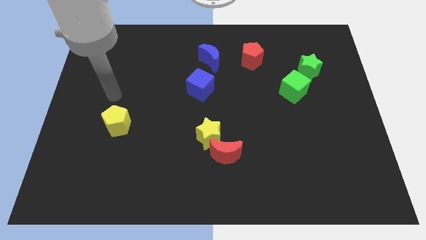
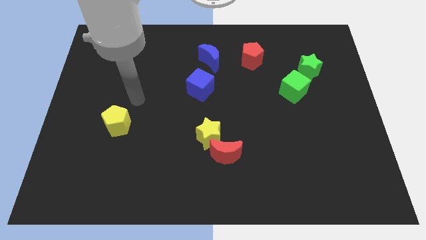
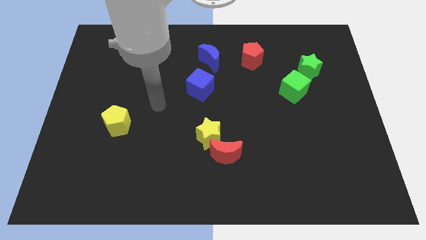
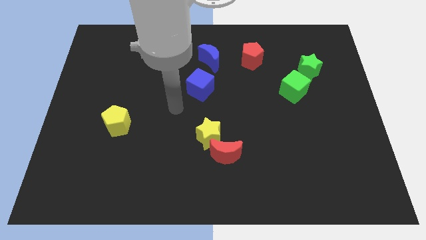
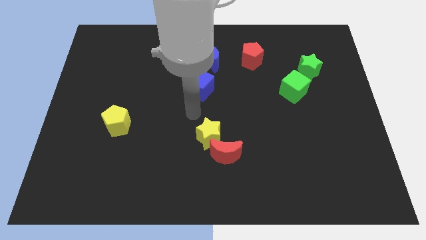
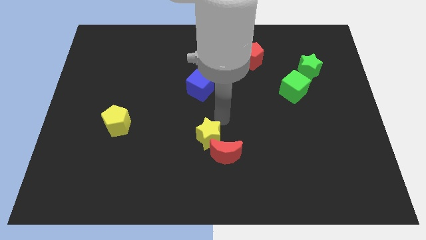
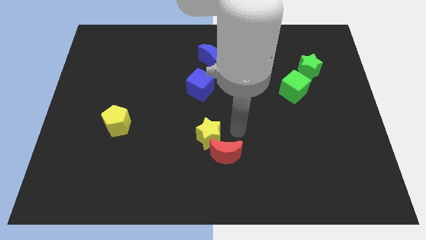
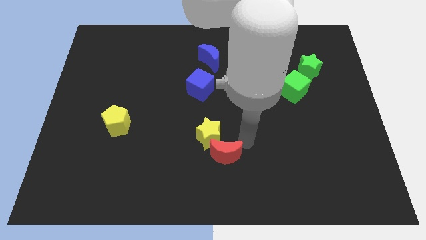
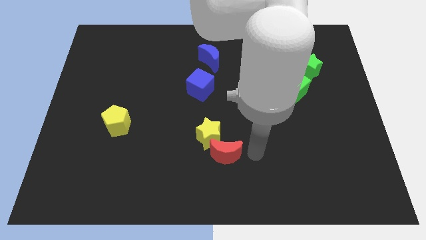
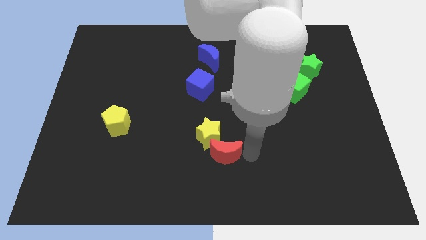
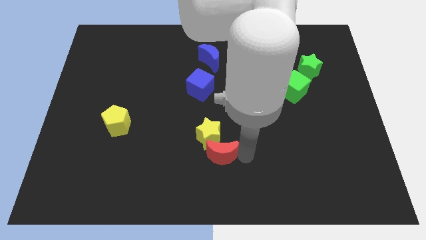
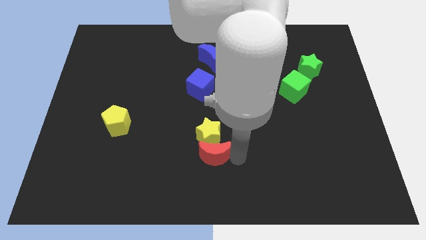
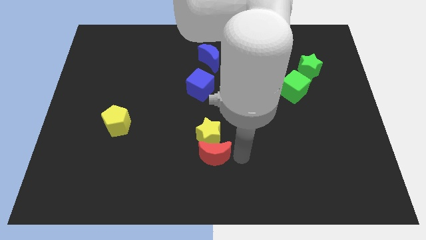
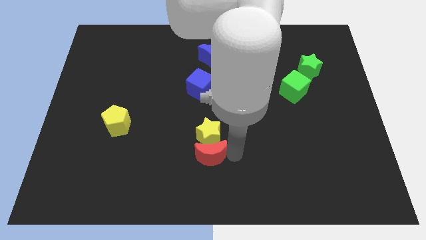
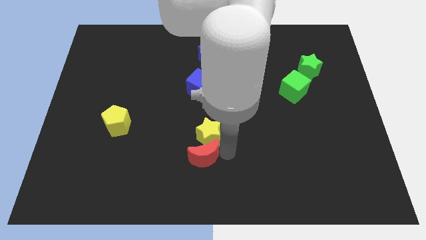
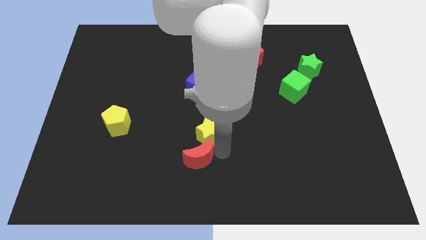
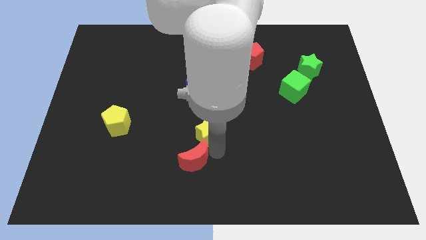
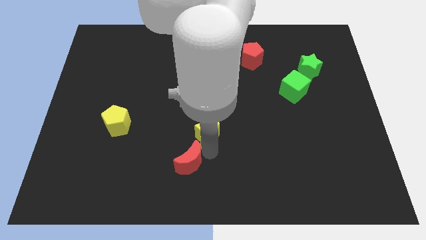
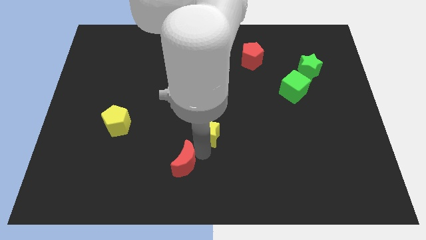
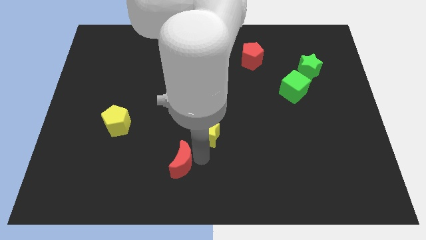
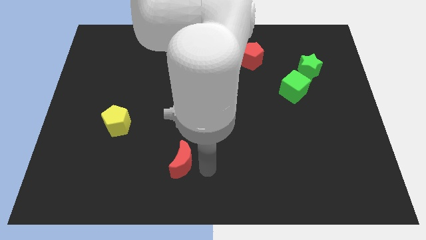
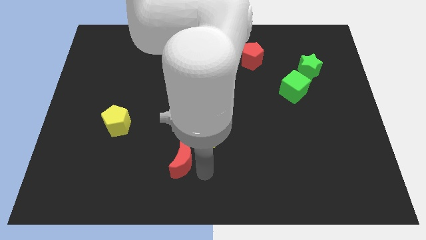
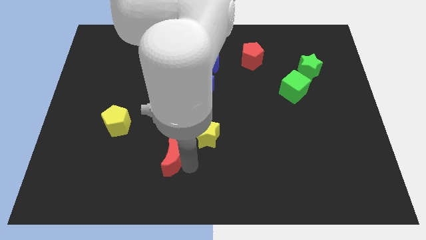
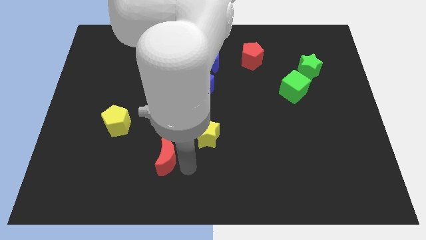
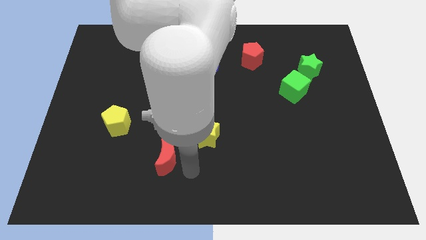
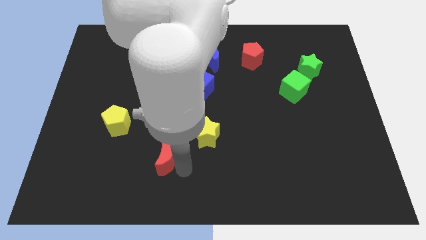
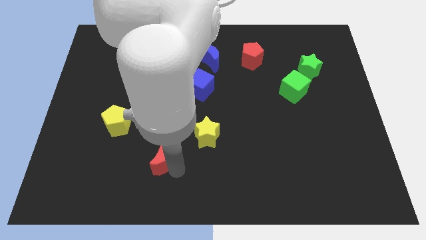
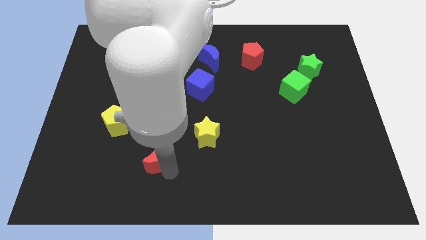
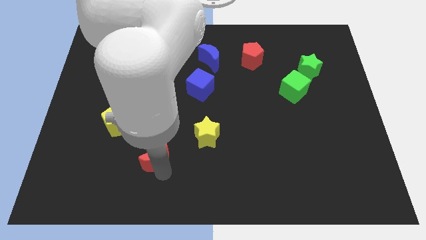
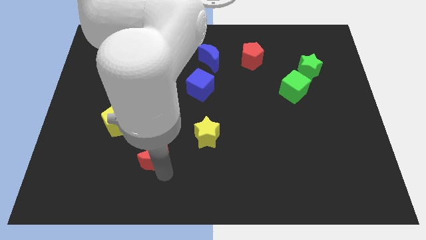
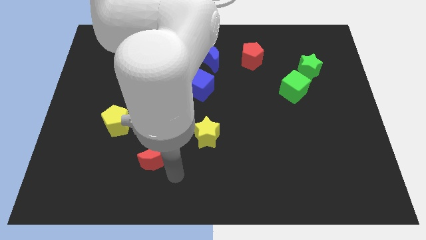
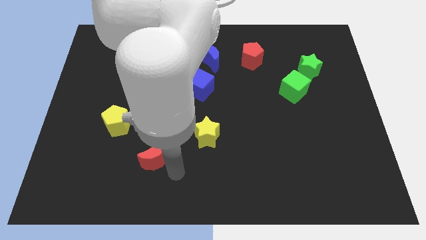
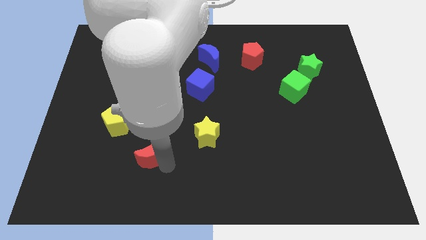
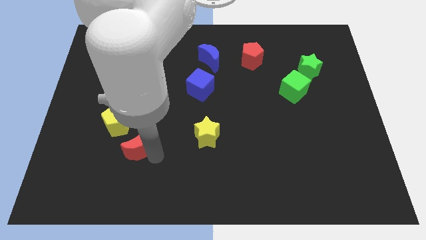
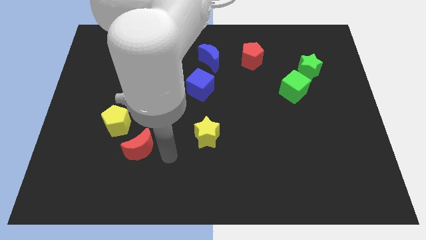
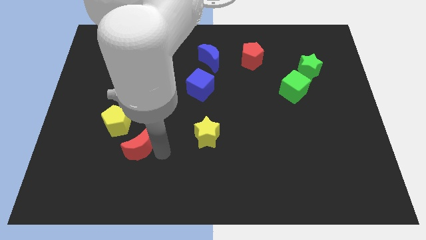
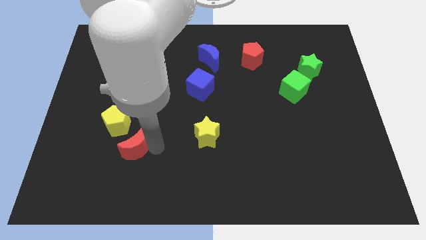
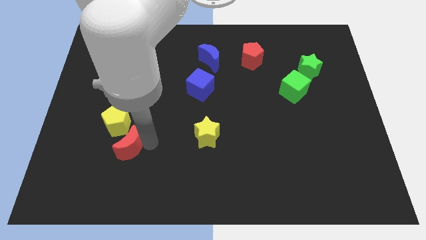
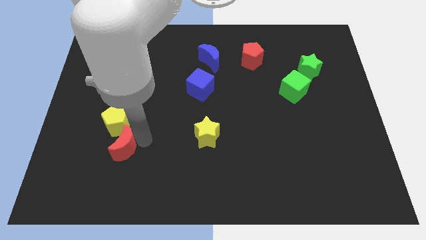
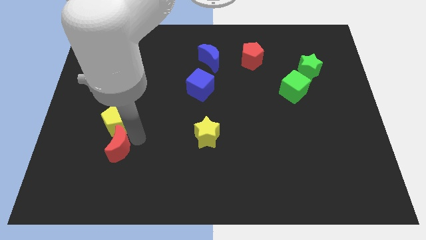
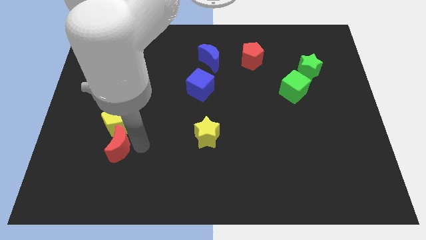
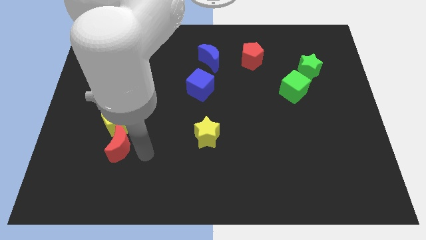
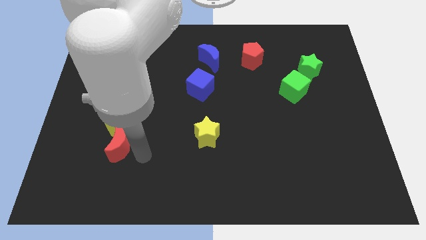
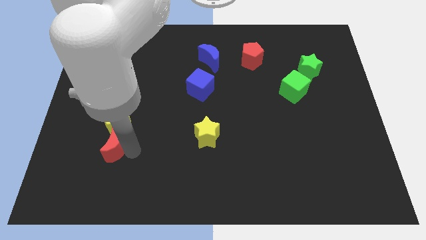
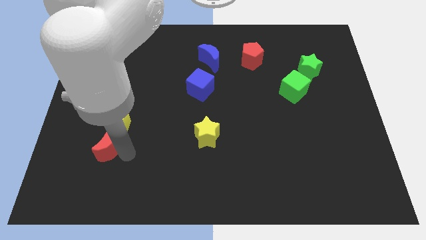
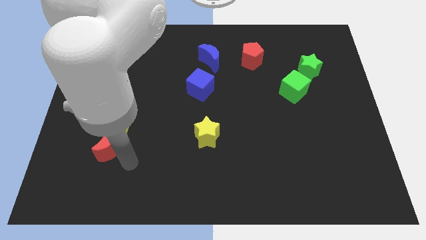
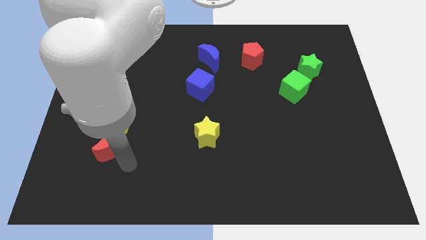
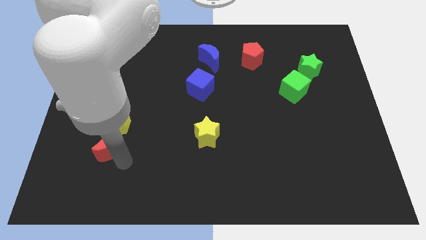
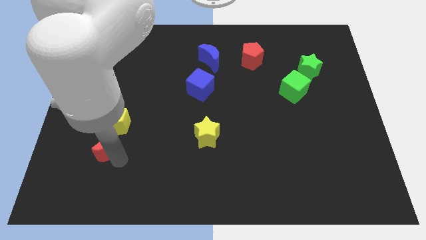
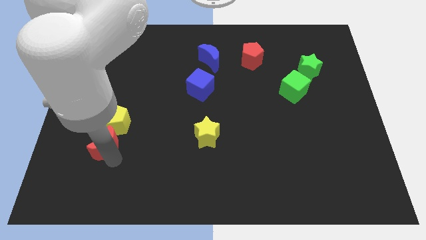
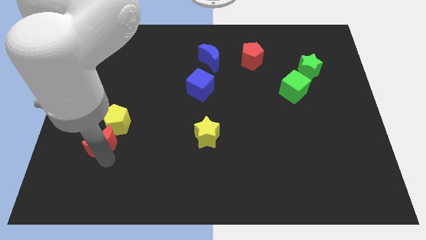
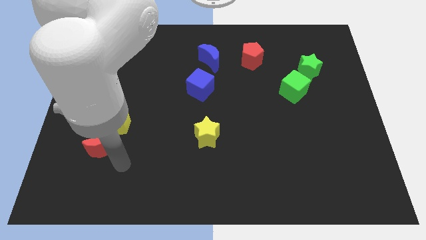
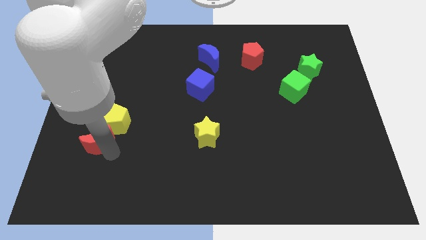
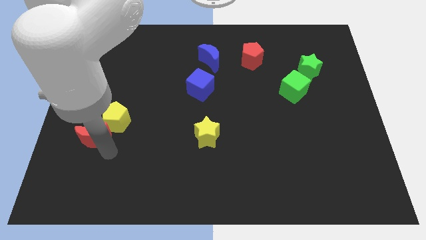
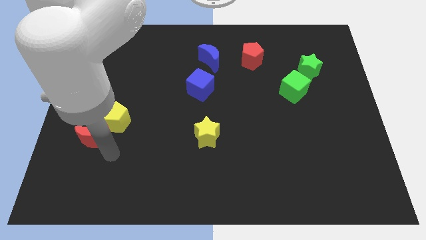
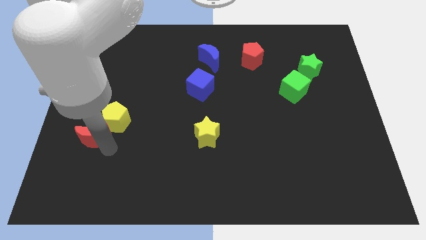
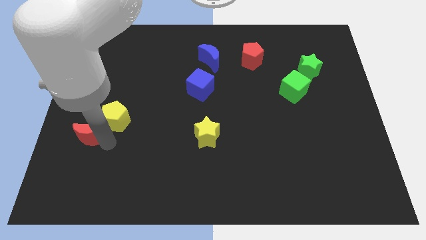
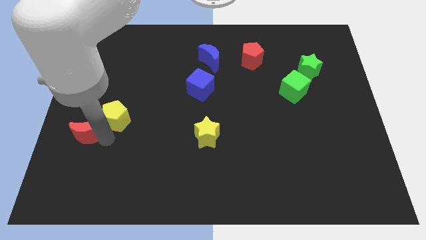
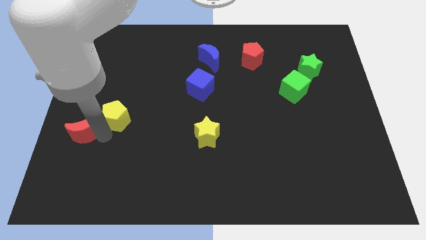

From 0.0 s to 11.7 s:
slide the red moon to the center left

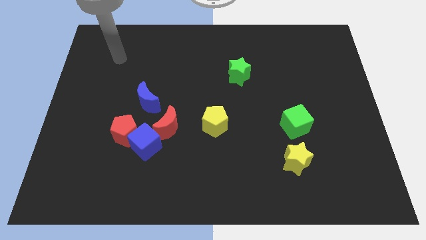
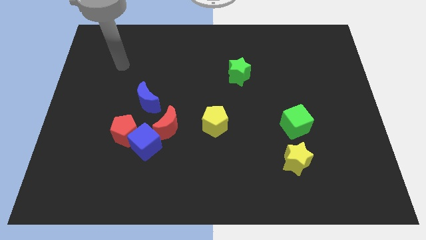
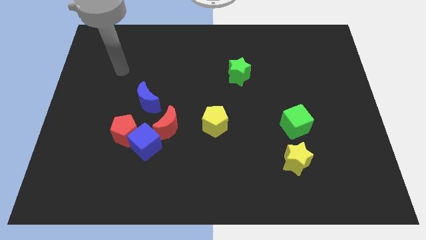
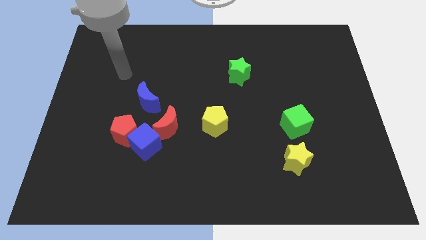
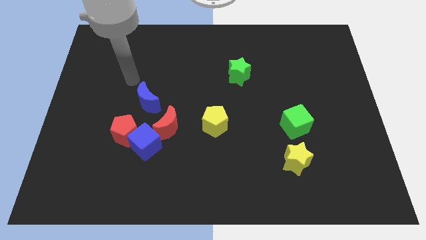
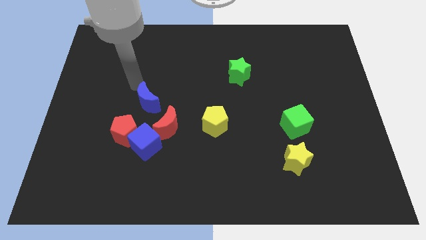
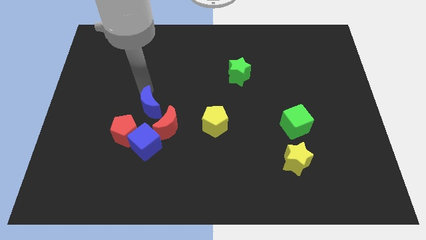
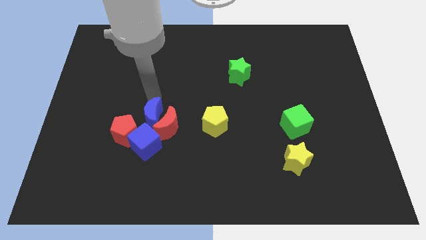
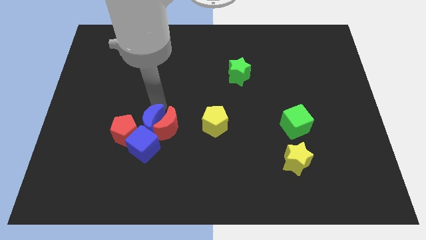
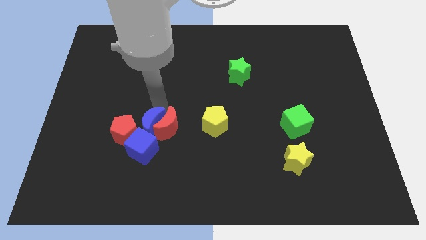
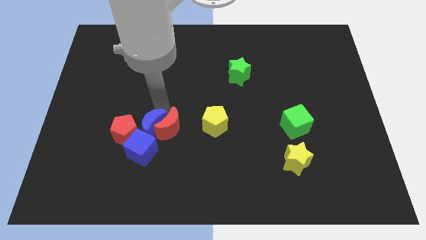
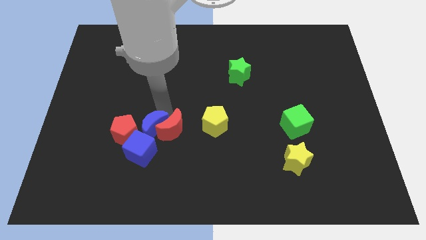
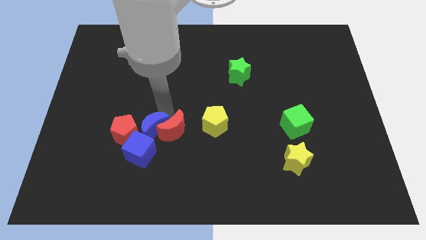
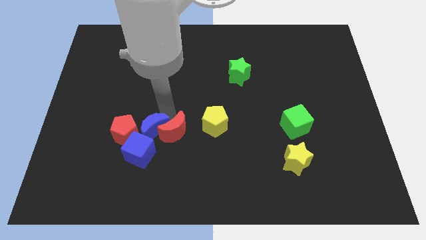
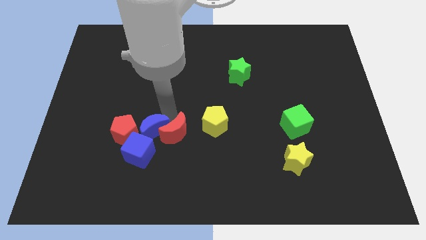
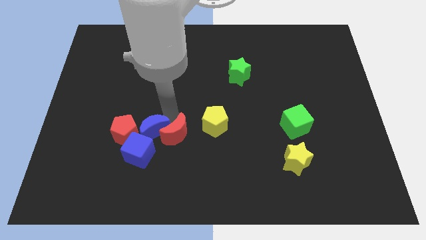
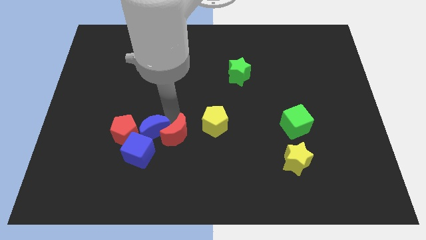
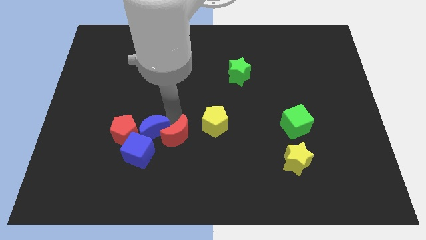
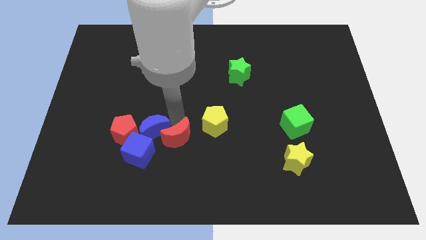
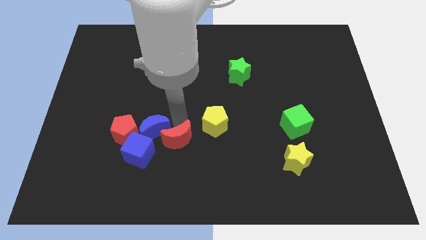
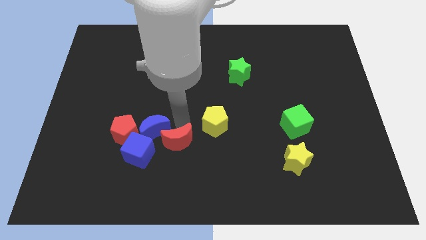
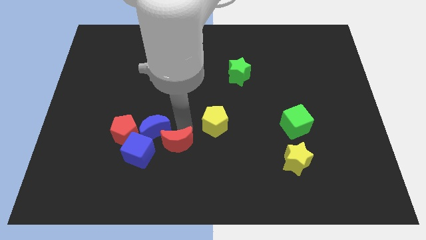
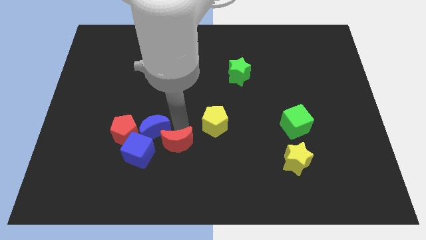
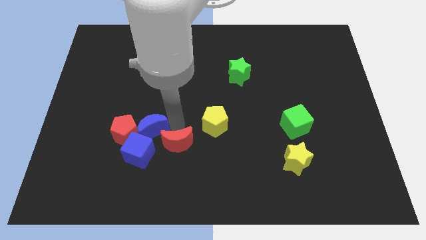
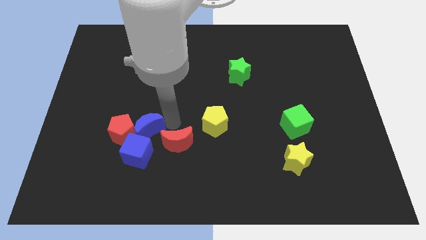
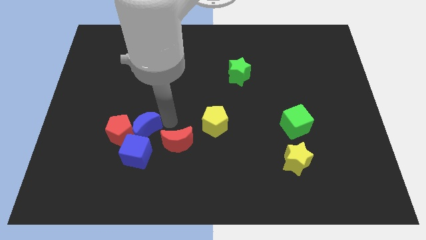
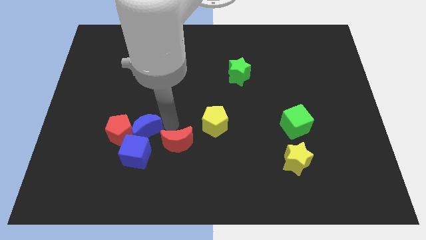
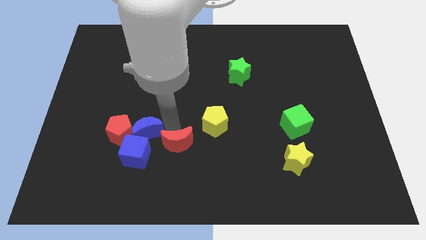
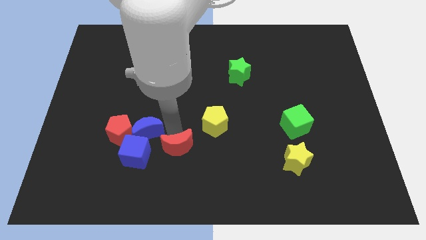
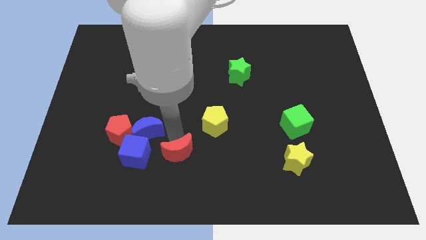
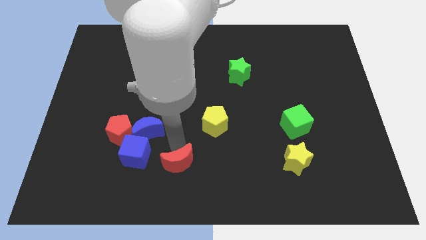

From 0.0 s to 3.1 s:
slide the red moon to the bottom
